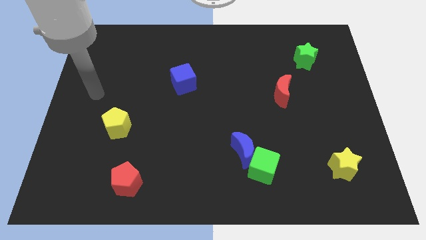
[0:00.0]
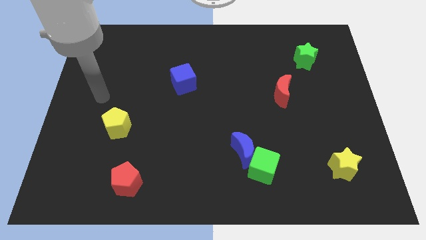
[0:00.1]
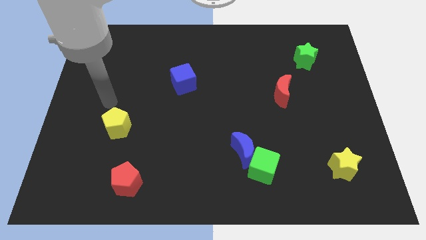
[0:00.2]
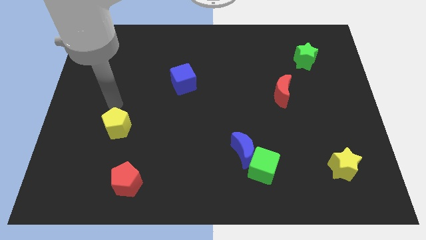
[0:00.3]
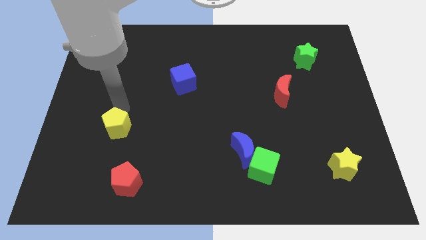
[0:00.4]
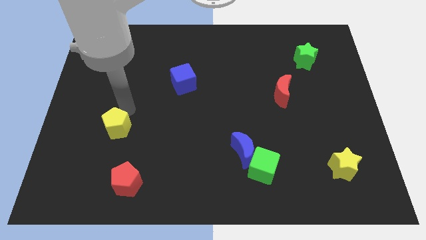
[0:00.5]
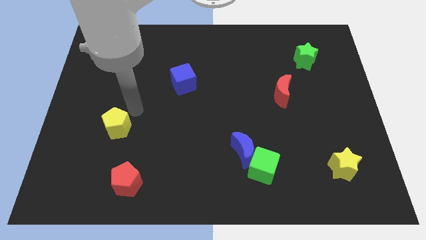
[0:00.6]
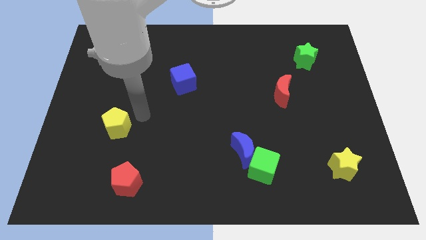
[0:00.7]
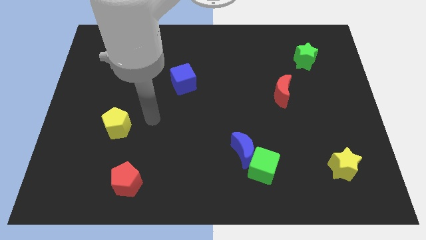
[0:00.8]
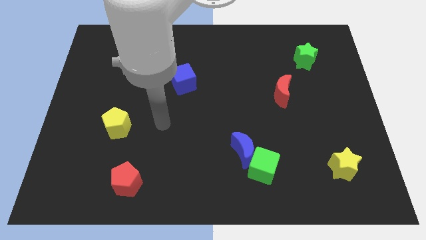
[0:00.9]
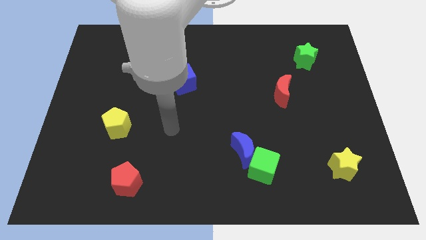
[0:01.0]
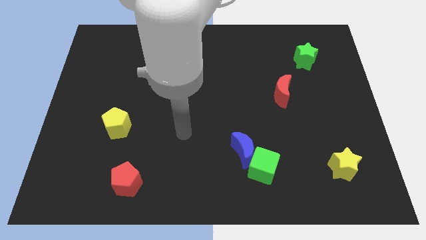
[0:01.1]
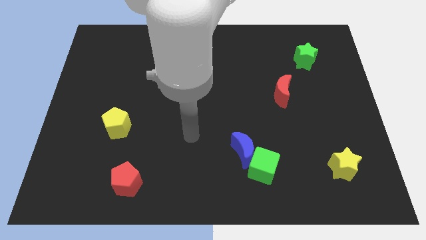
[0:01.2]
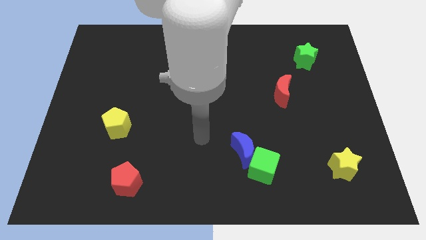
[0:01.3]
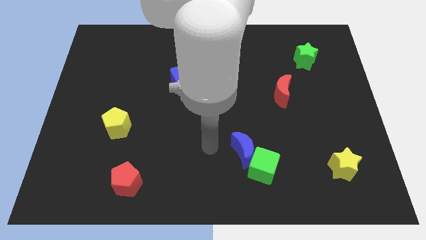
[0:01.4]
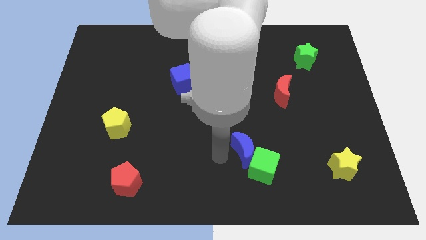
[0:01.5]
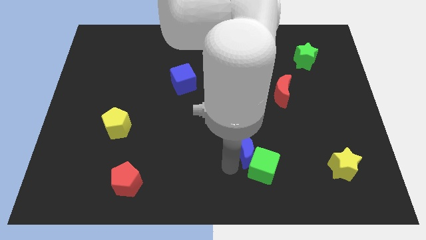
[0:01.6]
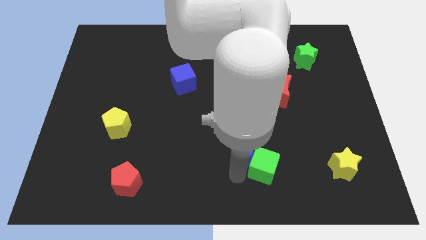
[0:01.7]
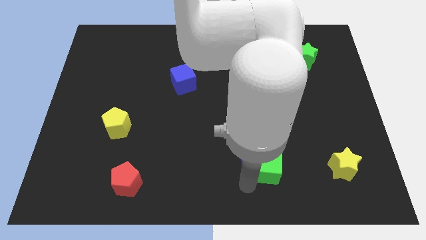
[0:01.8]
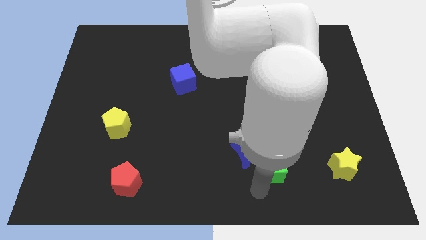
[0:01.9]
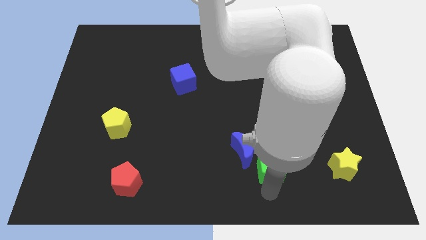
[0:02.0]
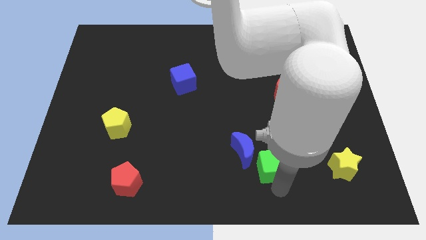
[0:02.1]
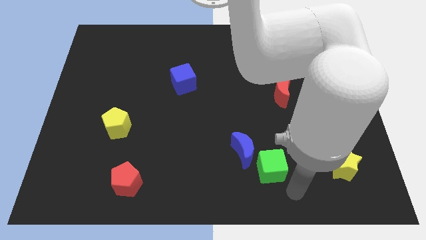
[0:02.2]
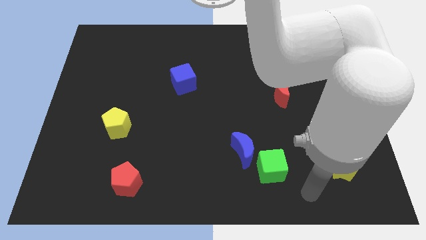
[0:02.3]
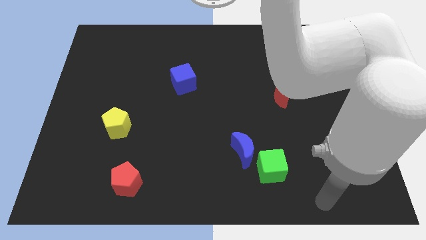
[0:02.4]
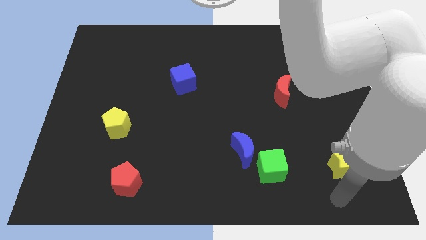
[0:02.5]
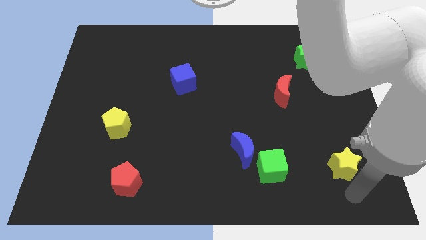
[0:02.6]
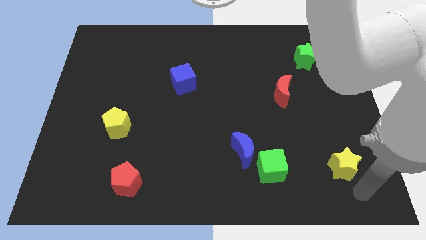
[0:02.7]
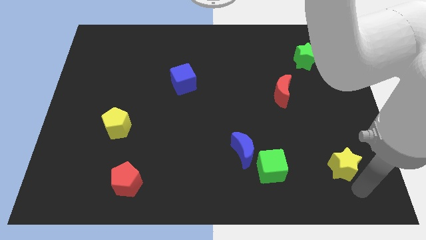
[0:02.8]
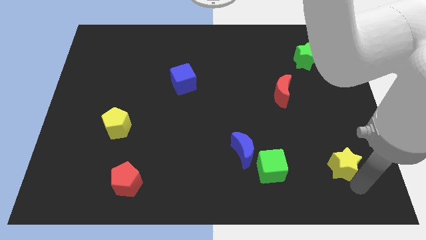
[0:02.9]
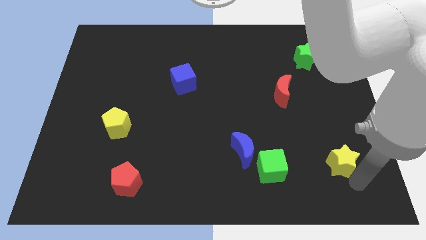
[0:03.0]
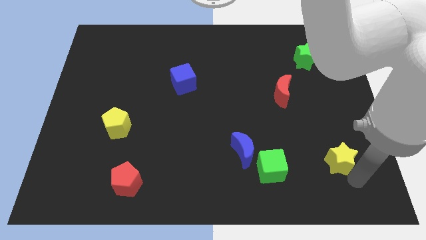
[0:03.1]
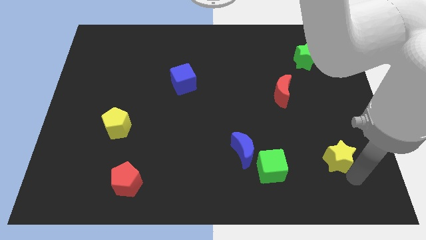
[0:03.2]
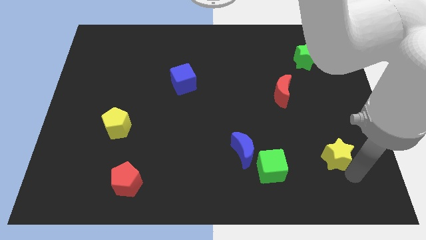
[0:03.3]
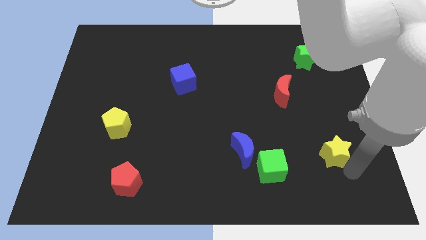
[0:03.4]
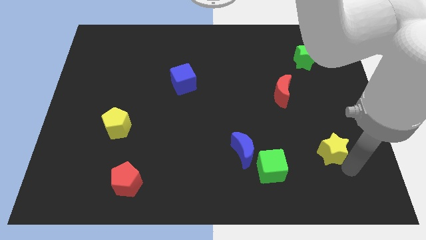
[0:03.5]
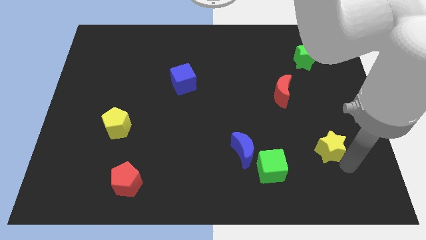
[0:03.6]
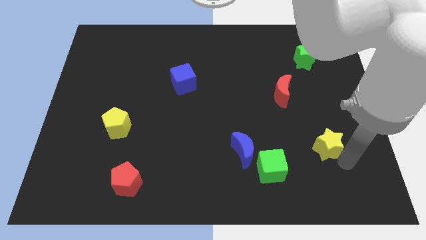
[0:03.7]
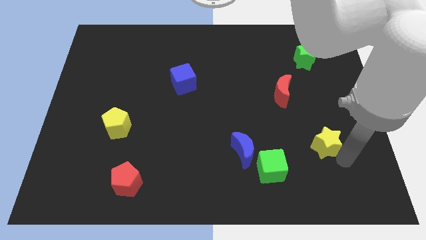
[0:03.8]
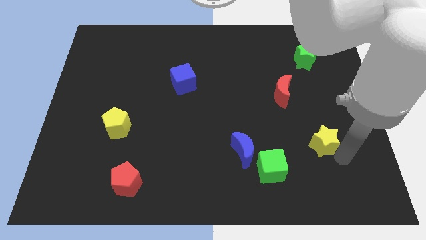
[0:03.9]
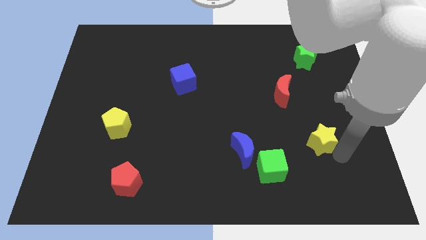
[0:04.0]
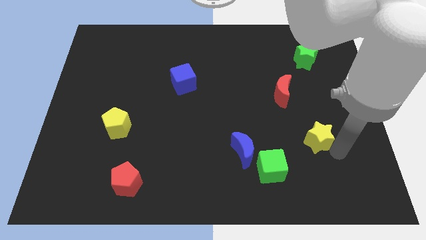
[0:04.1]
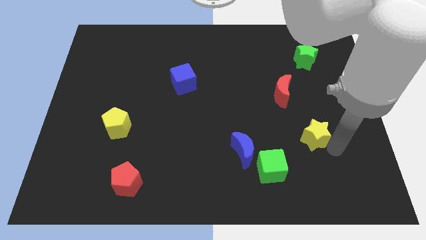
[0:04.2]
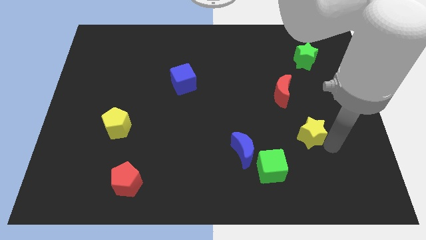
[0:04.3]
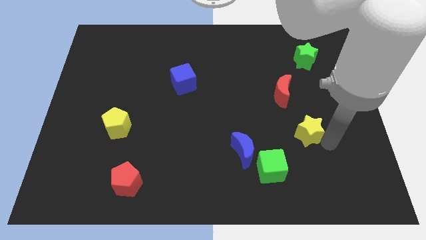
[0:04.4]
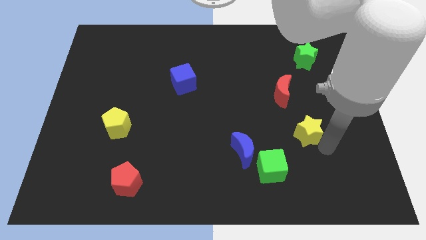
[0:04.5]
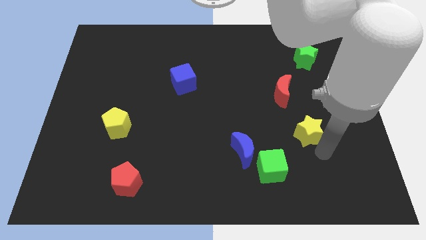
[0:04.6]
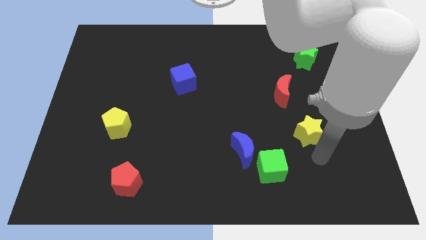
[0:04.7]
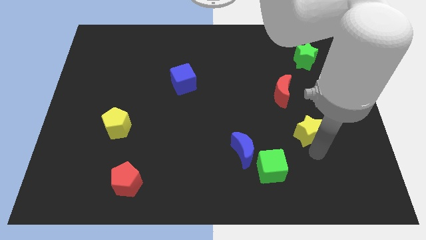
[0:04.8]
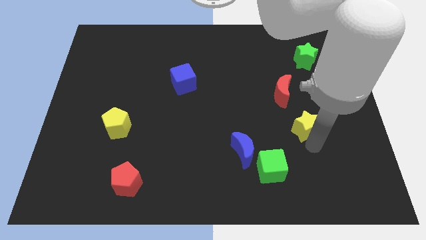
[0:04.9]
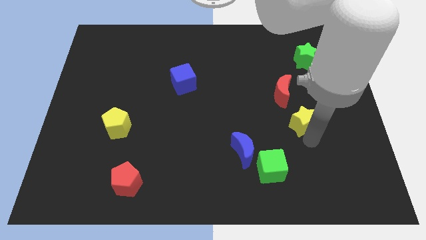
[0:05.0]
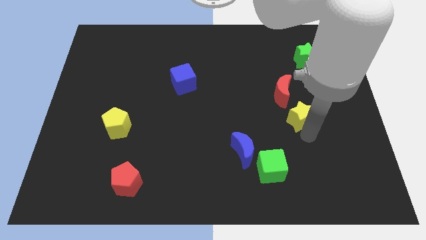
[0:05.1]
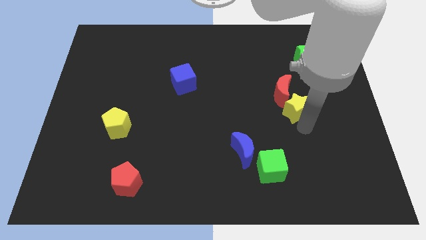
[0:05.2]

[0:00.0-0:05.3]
slide the yellow star towards the red moon

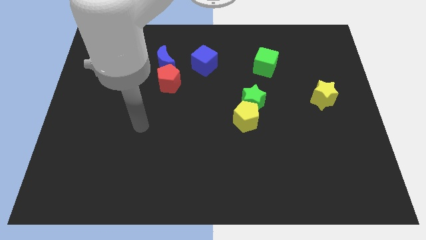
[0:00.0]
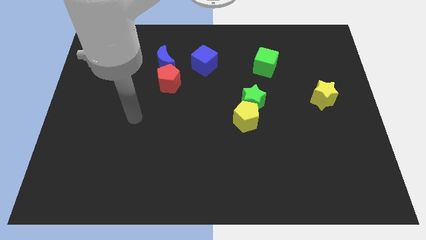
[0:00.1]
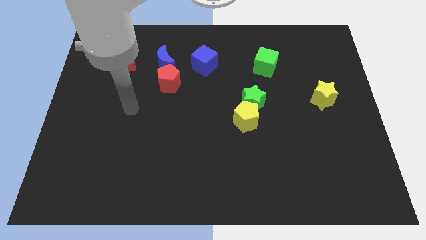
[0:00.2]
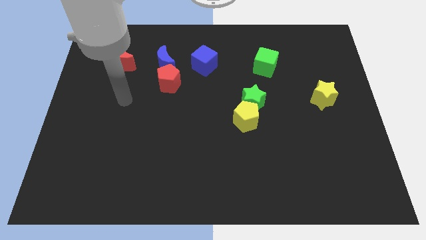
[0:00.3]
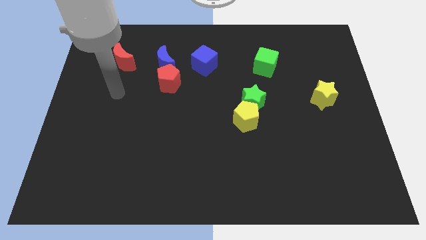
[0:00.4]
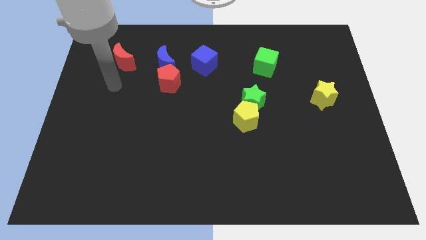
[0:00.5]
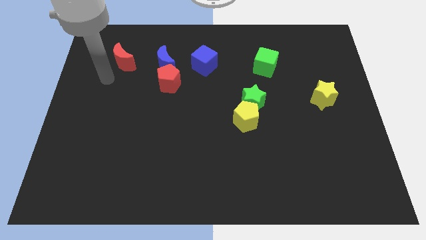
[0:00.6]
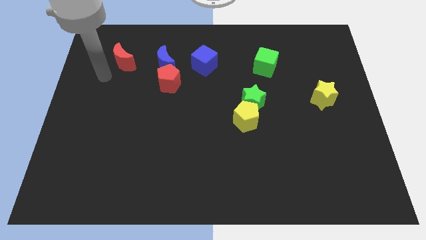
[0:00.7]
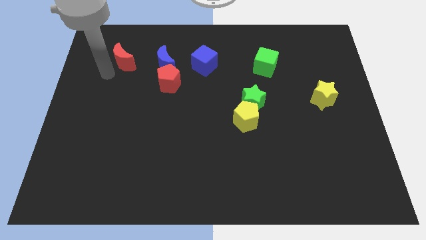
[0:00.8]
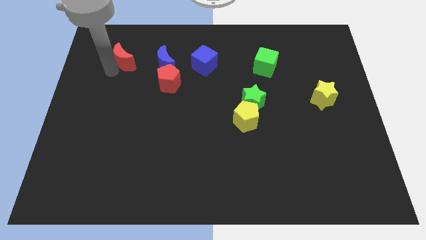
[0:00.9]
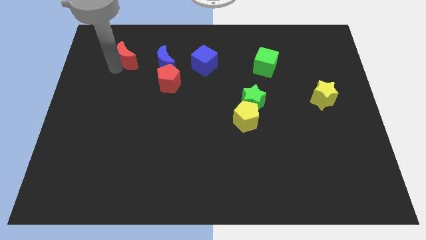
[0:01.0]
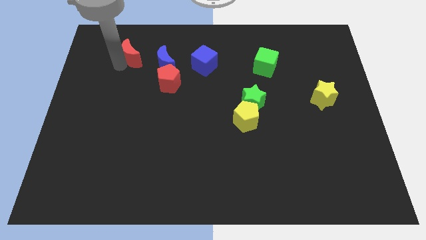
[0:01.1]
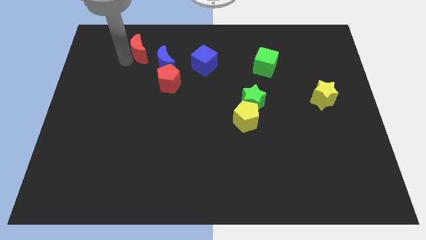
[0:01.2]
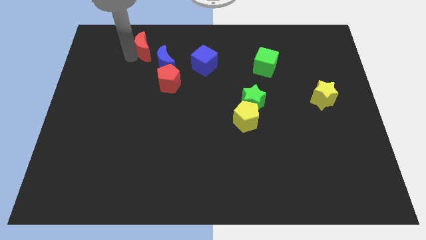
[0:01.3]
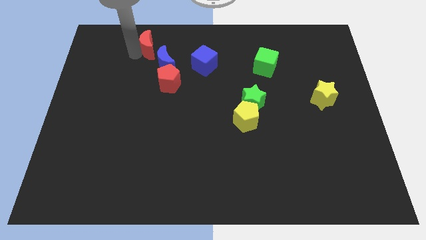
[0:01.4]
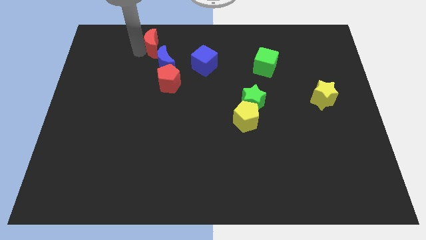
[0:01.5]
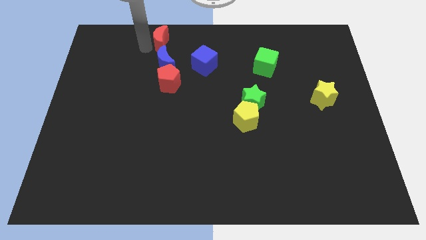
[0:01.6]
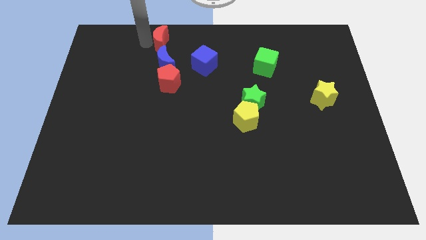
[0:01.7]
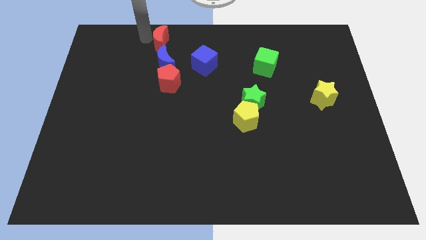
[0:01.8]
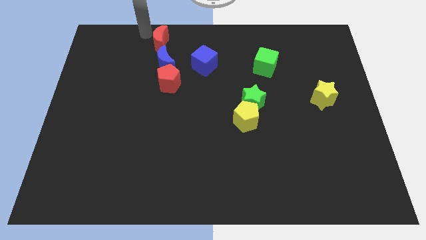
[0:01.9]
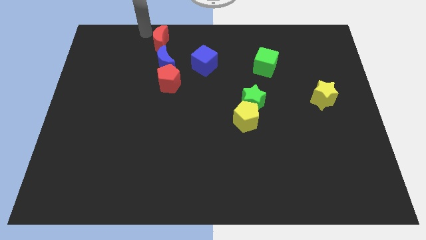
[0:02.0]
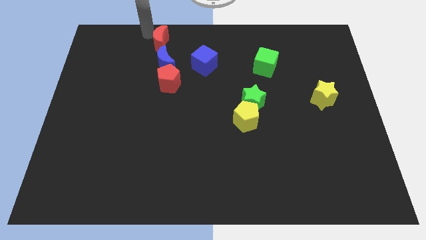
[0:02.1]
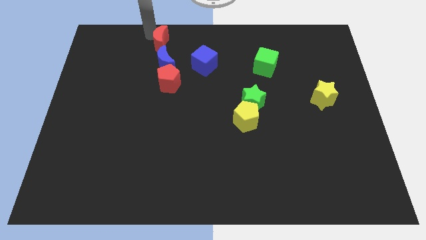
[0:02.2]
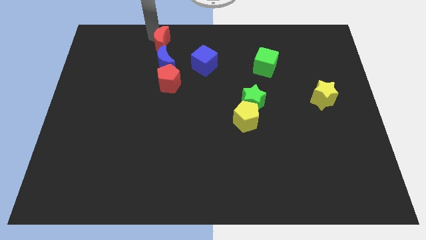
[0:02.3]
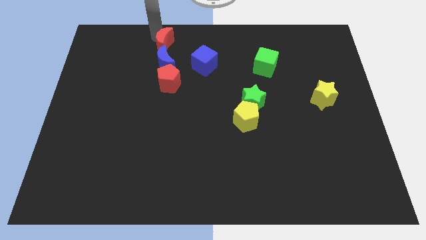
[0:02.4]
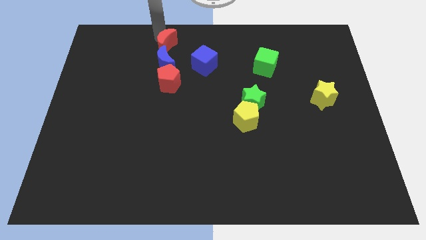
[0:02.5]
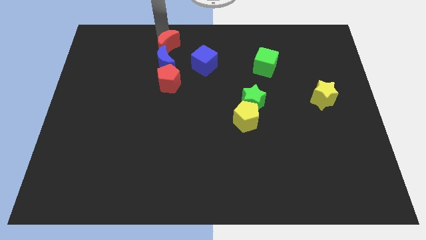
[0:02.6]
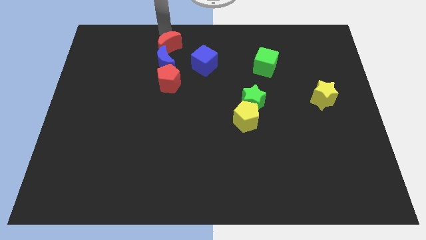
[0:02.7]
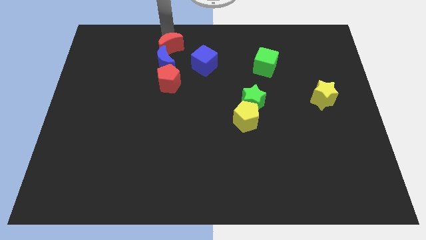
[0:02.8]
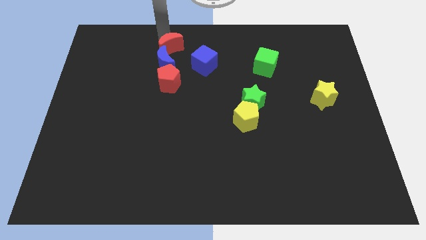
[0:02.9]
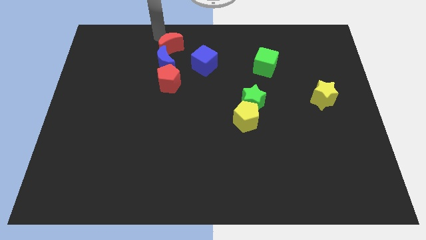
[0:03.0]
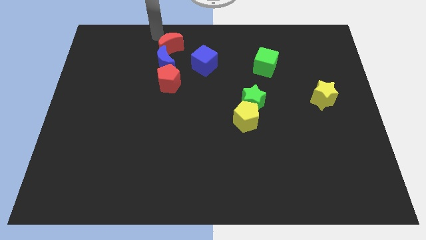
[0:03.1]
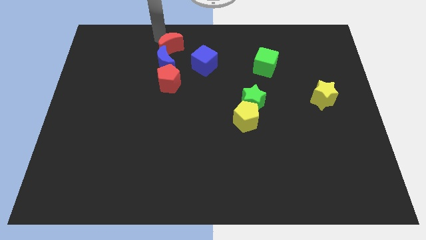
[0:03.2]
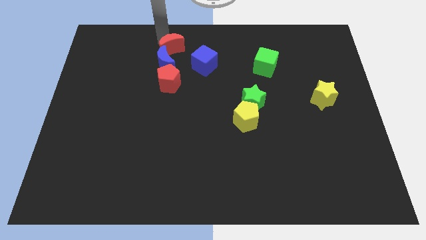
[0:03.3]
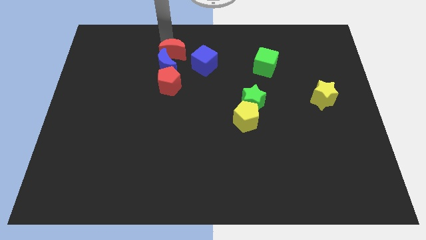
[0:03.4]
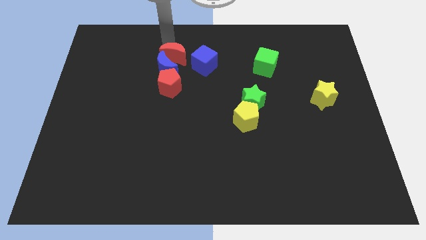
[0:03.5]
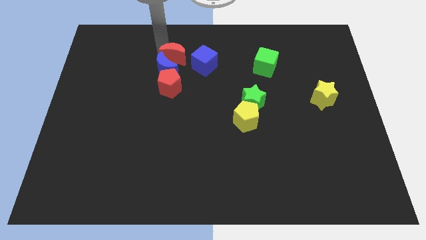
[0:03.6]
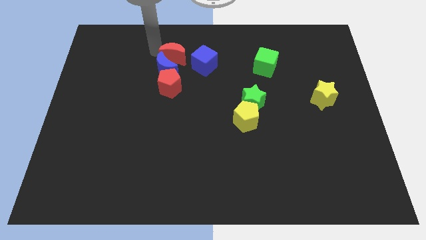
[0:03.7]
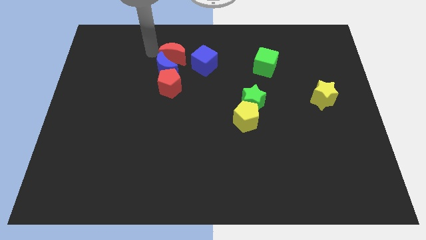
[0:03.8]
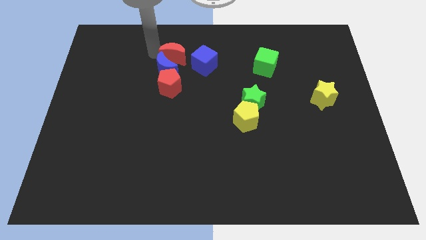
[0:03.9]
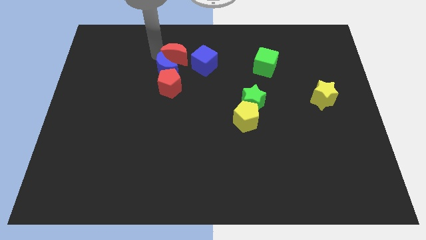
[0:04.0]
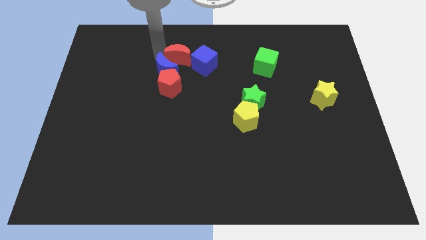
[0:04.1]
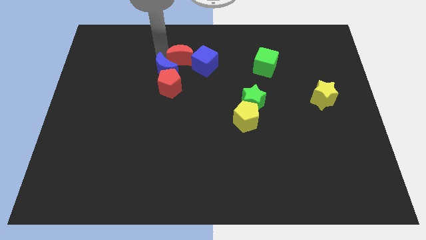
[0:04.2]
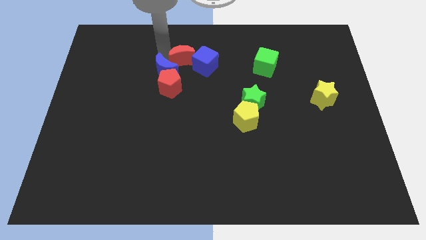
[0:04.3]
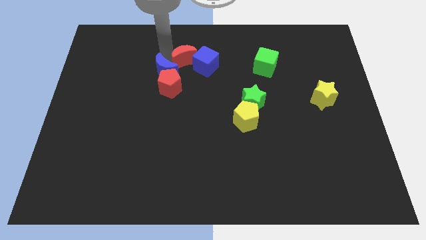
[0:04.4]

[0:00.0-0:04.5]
push the red moon to the blue cube
